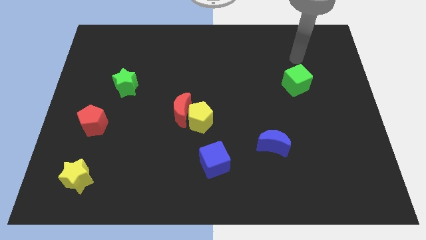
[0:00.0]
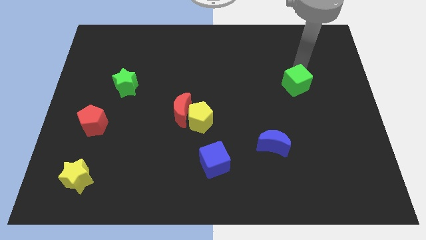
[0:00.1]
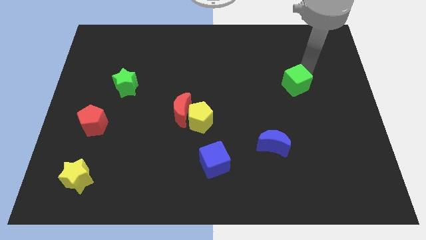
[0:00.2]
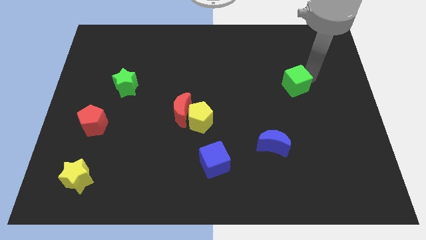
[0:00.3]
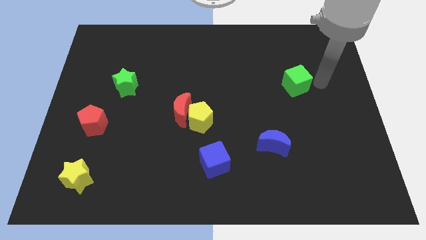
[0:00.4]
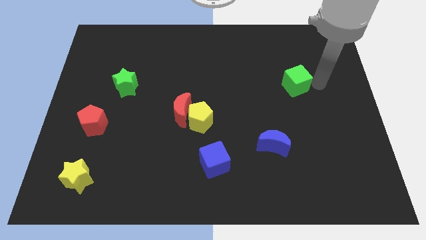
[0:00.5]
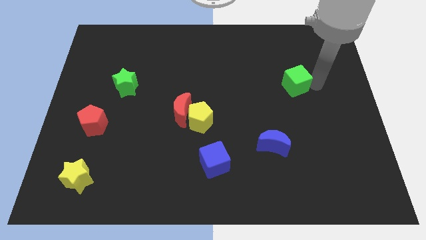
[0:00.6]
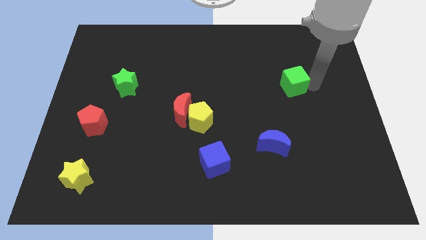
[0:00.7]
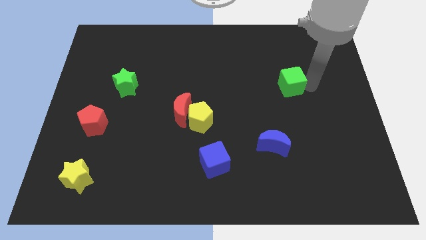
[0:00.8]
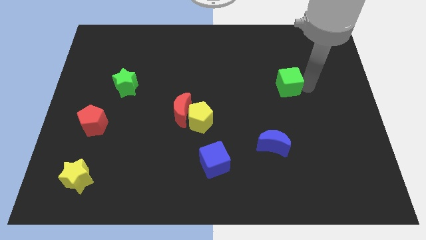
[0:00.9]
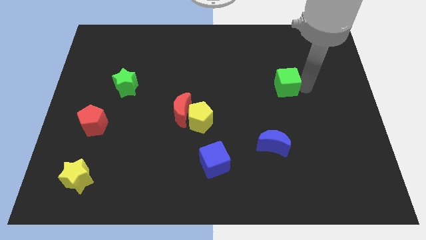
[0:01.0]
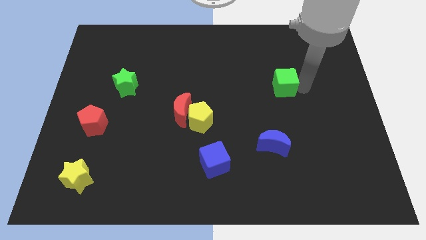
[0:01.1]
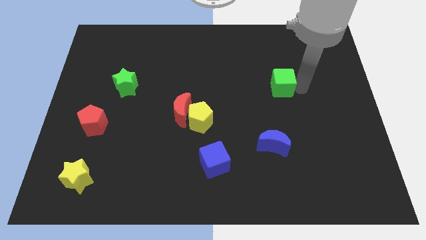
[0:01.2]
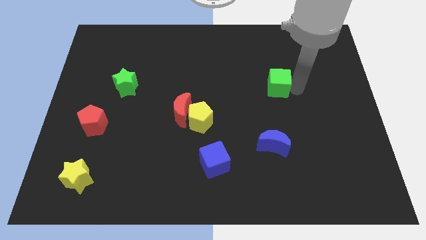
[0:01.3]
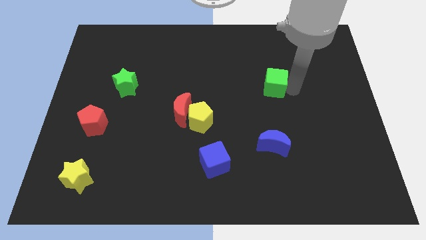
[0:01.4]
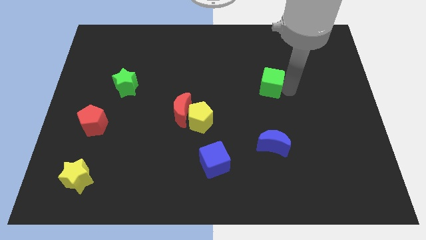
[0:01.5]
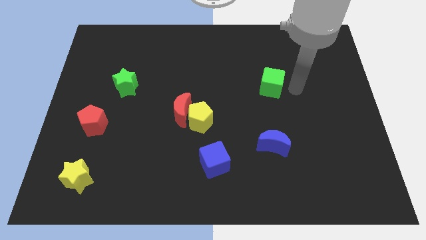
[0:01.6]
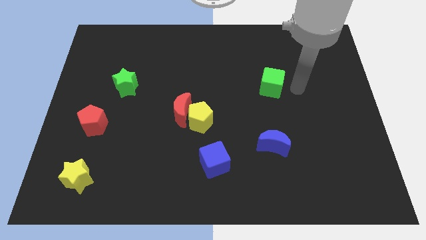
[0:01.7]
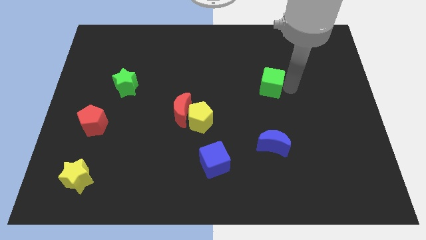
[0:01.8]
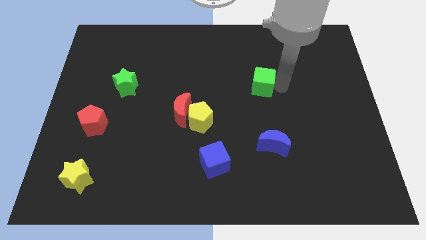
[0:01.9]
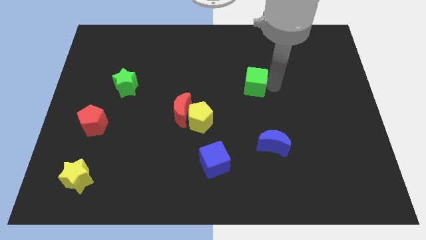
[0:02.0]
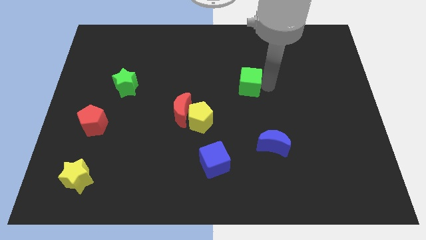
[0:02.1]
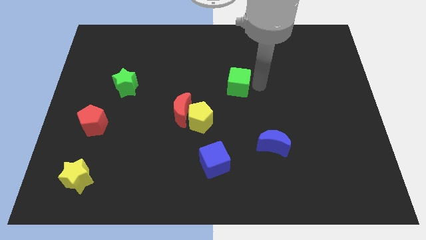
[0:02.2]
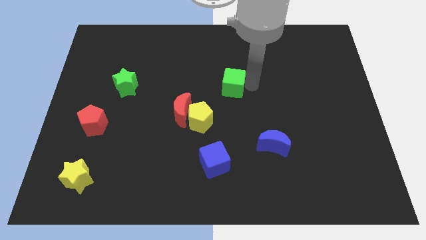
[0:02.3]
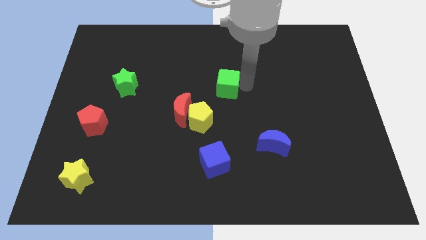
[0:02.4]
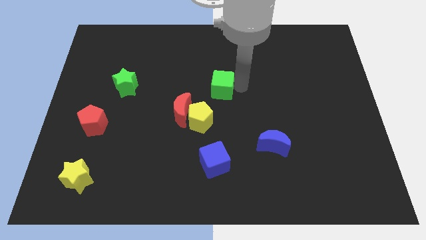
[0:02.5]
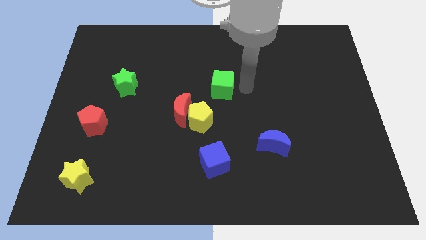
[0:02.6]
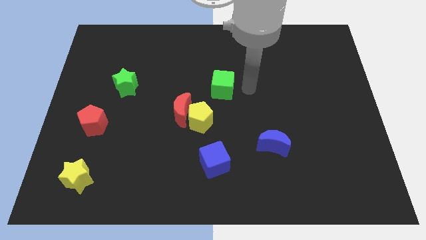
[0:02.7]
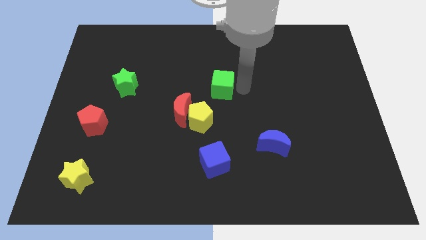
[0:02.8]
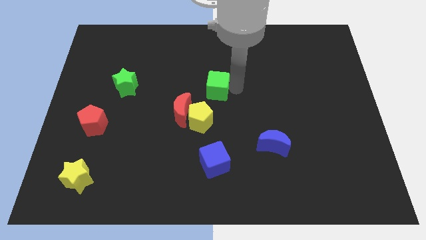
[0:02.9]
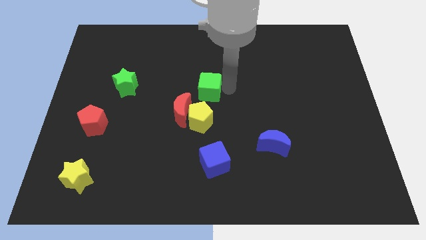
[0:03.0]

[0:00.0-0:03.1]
slide the green cube left

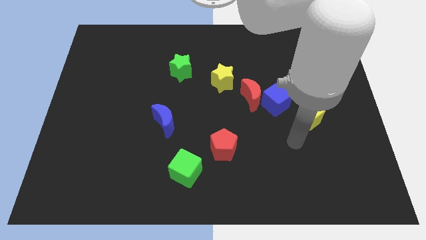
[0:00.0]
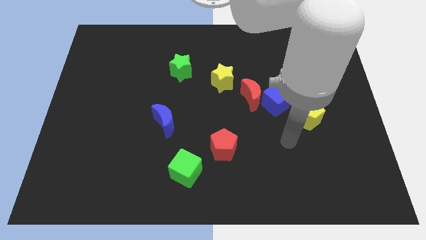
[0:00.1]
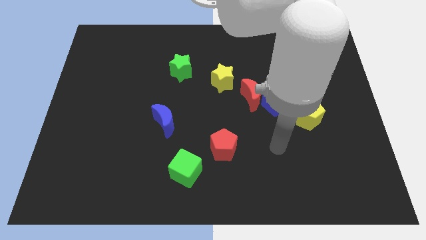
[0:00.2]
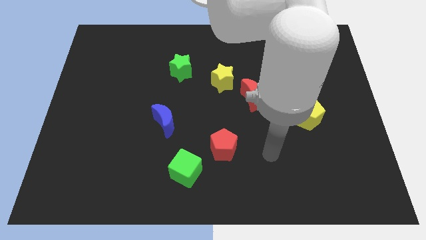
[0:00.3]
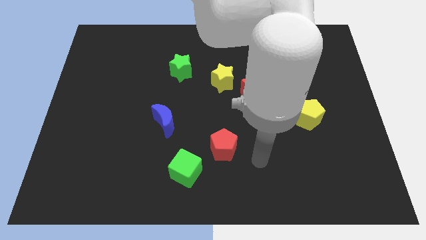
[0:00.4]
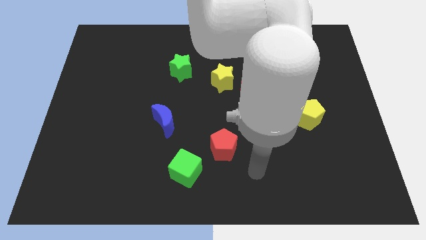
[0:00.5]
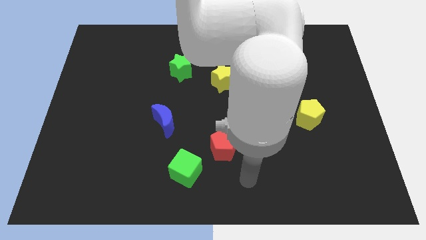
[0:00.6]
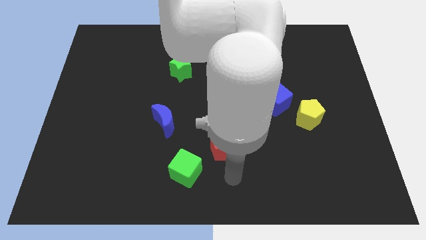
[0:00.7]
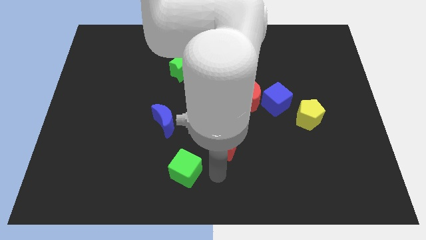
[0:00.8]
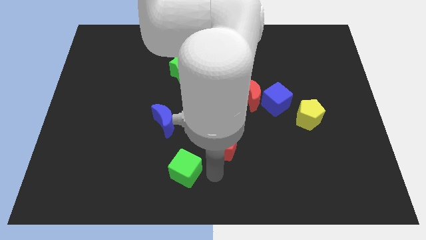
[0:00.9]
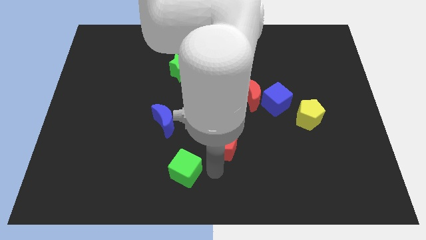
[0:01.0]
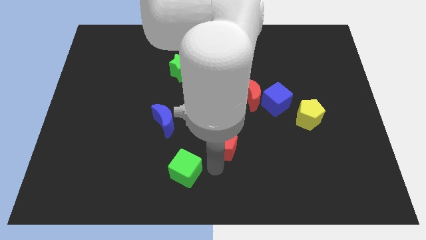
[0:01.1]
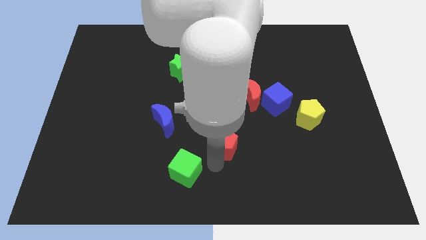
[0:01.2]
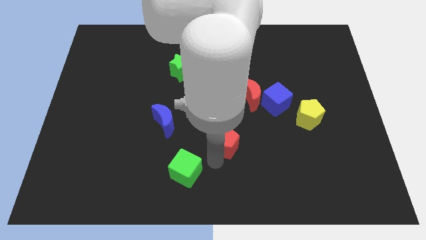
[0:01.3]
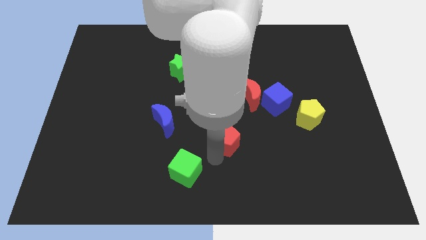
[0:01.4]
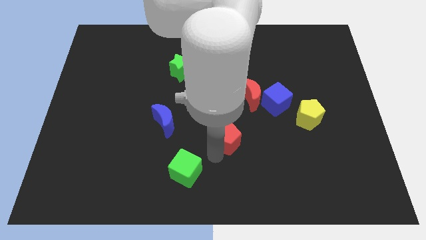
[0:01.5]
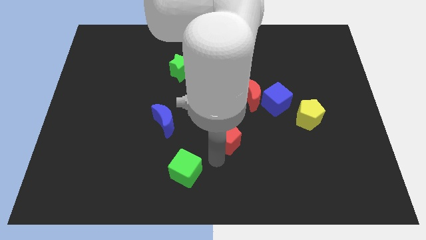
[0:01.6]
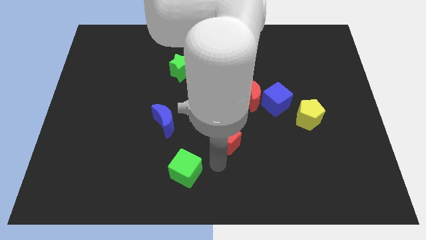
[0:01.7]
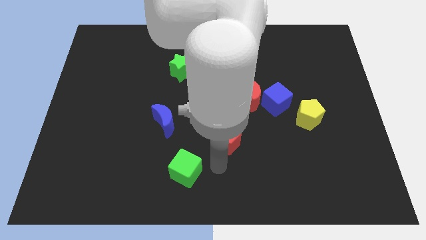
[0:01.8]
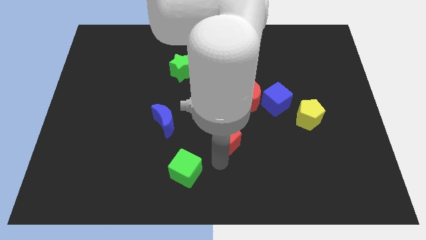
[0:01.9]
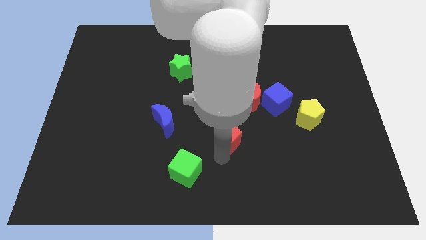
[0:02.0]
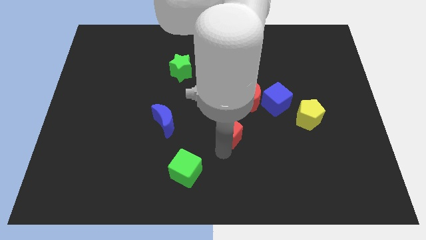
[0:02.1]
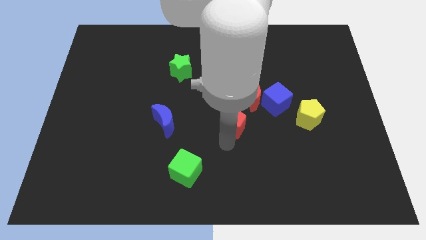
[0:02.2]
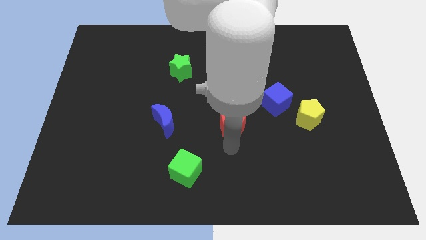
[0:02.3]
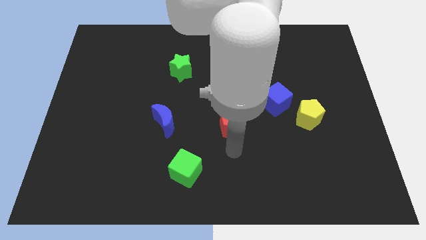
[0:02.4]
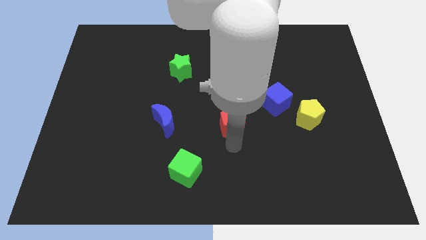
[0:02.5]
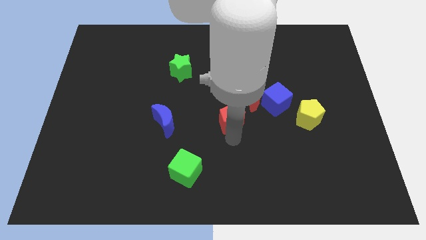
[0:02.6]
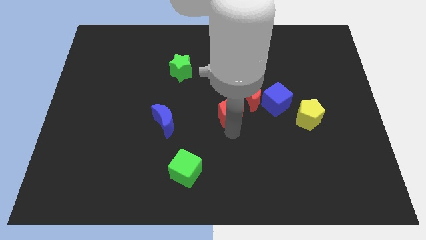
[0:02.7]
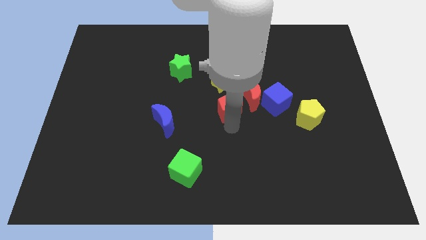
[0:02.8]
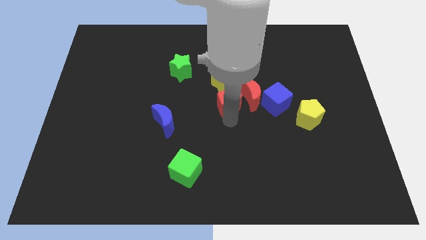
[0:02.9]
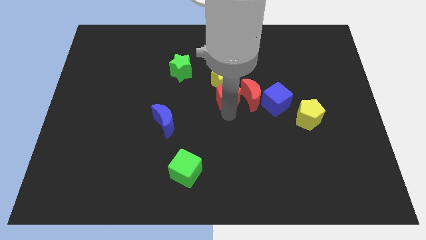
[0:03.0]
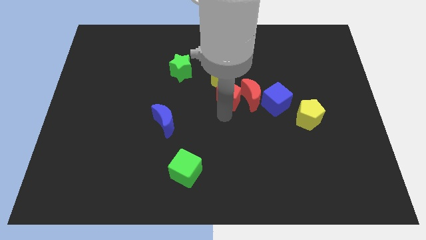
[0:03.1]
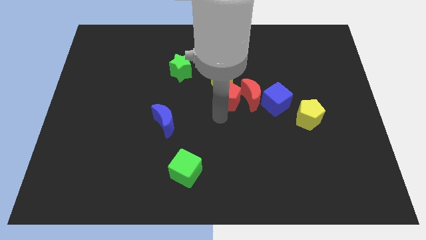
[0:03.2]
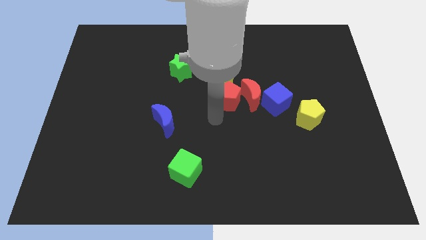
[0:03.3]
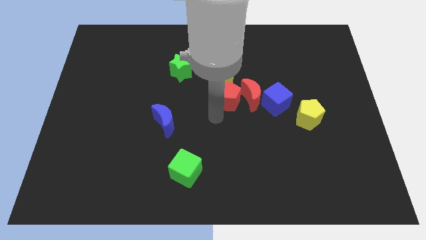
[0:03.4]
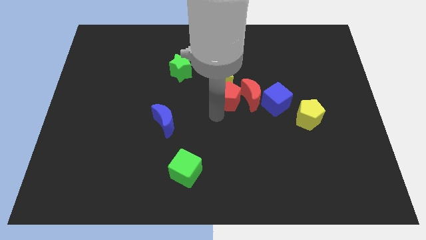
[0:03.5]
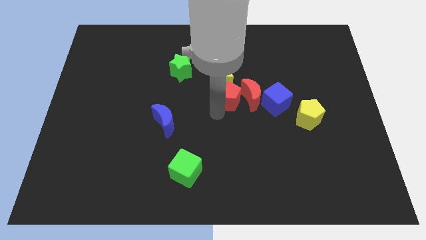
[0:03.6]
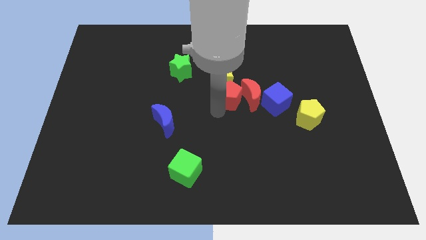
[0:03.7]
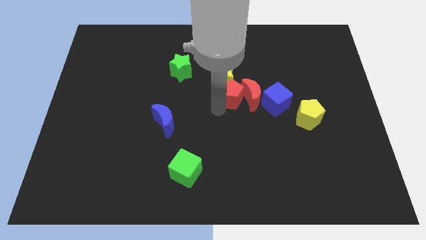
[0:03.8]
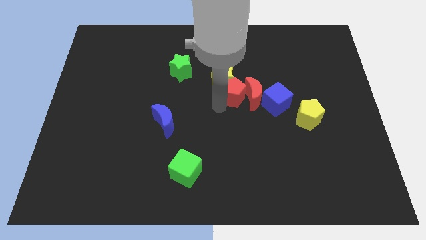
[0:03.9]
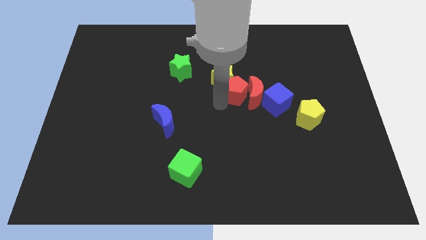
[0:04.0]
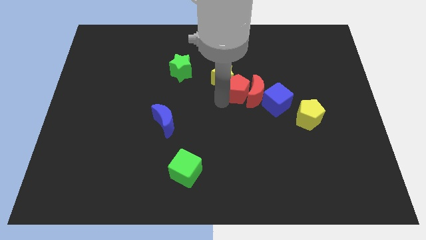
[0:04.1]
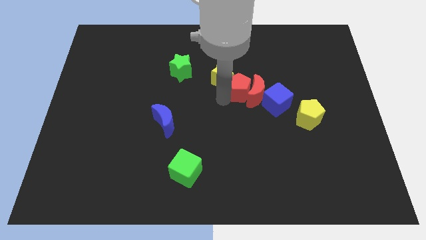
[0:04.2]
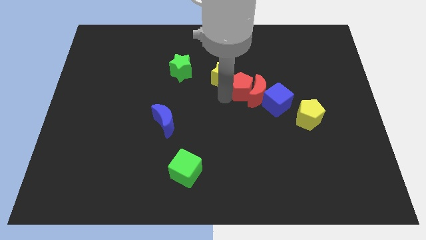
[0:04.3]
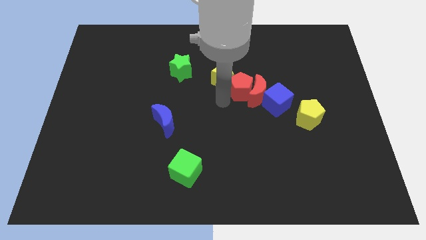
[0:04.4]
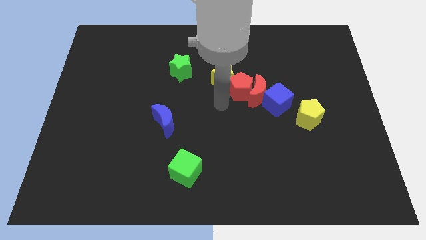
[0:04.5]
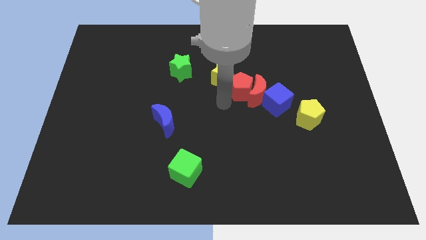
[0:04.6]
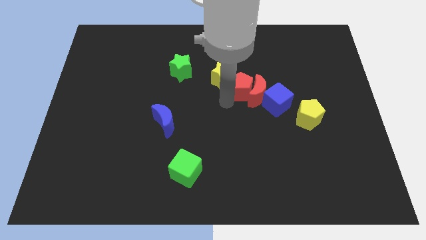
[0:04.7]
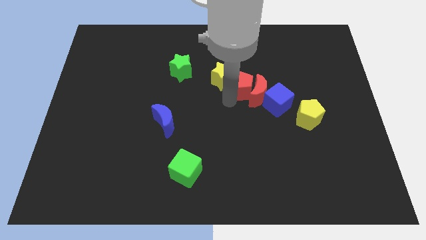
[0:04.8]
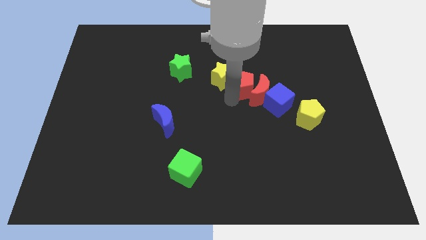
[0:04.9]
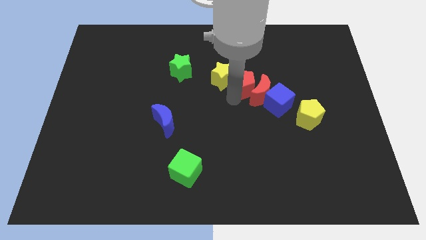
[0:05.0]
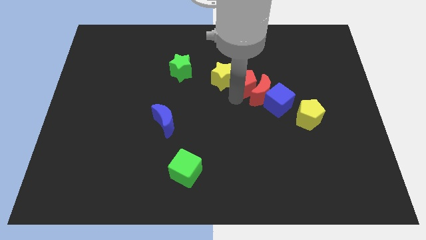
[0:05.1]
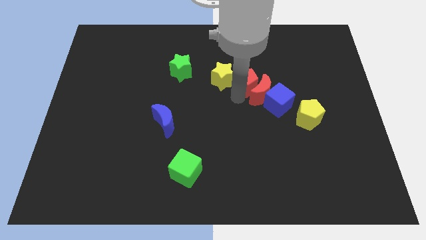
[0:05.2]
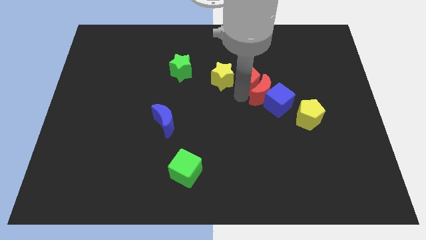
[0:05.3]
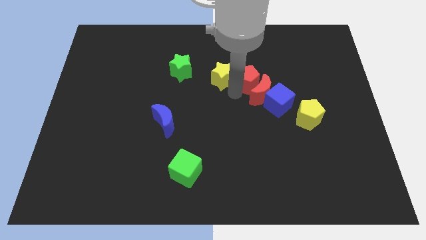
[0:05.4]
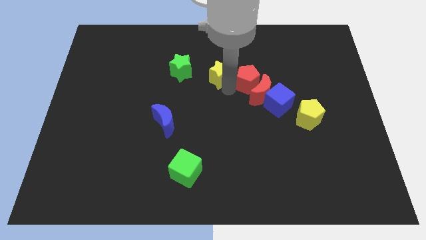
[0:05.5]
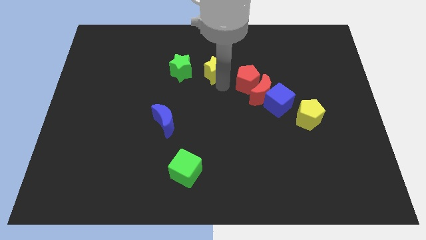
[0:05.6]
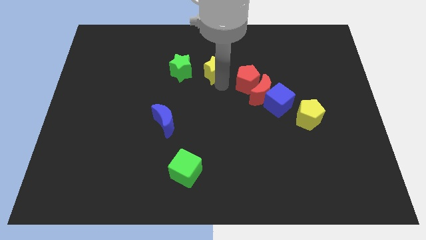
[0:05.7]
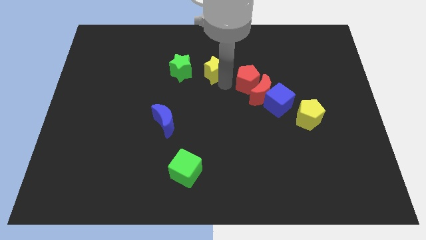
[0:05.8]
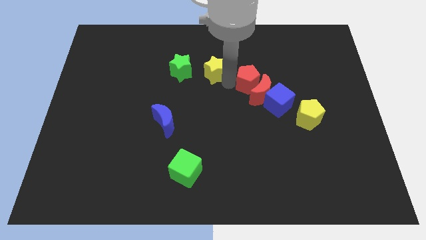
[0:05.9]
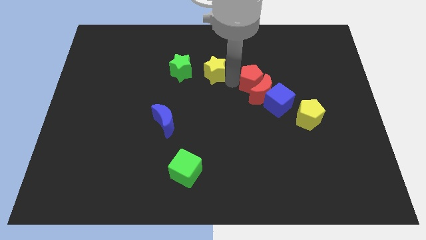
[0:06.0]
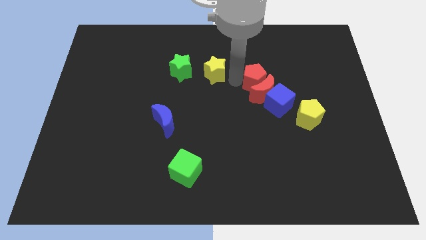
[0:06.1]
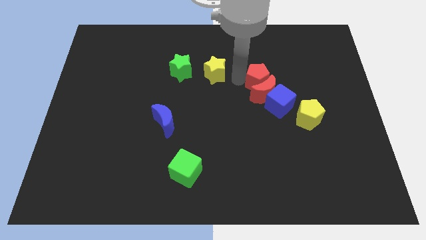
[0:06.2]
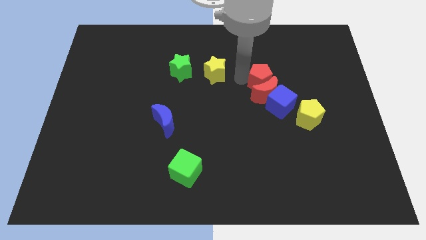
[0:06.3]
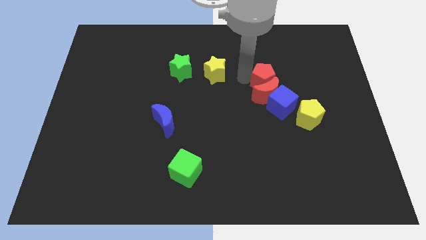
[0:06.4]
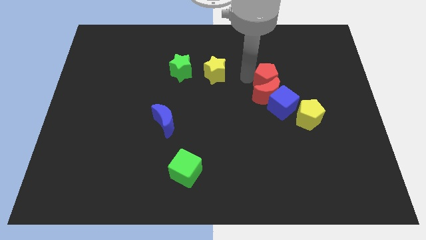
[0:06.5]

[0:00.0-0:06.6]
push the red pentagon upwards and to the right
